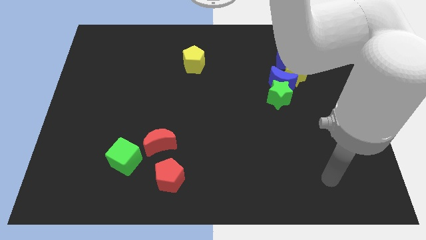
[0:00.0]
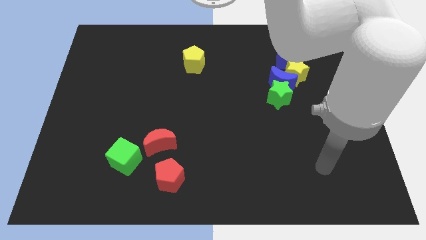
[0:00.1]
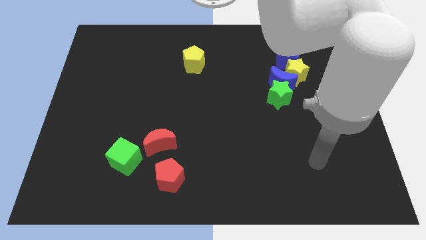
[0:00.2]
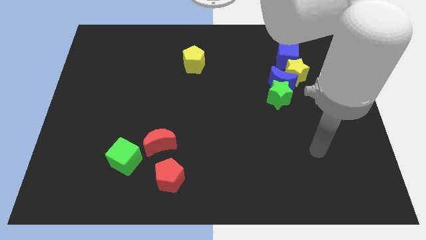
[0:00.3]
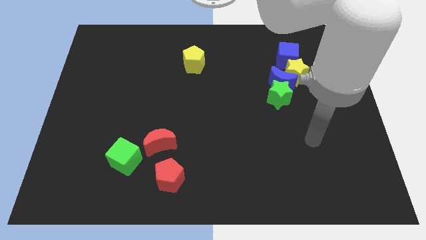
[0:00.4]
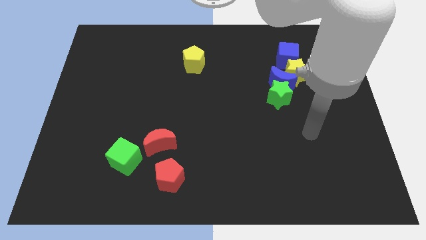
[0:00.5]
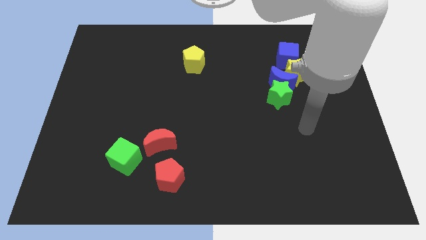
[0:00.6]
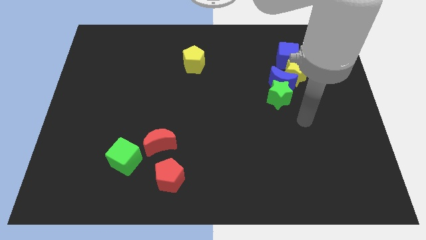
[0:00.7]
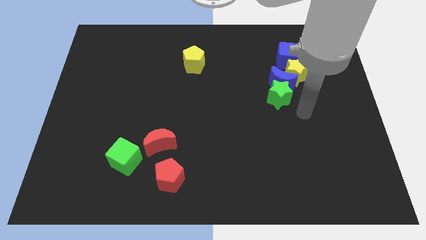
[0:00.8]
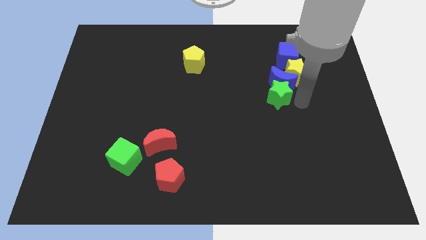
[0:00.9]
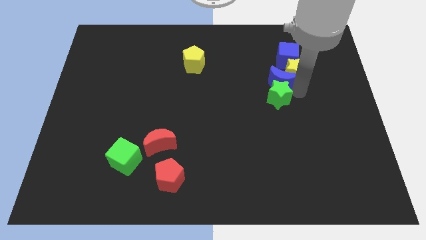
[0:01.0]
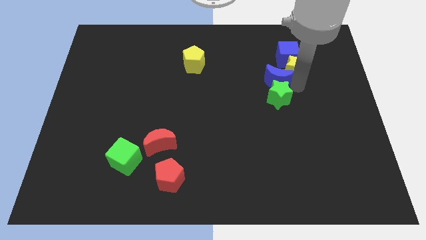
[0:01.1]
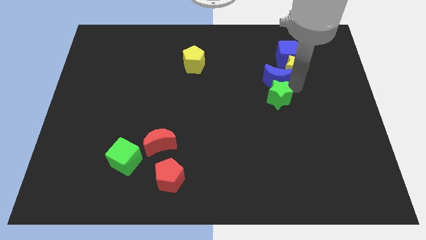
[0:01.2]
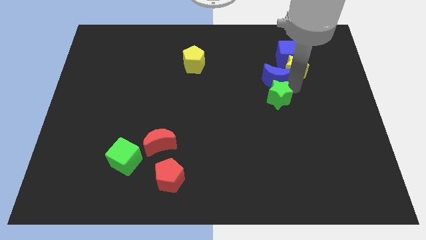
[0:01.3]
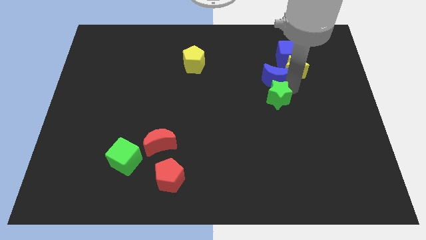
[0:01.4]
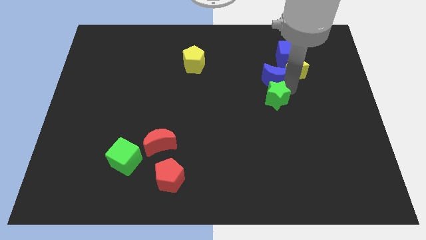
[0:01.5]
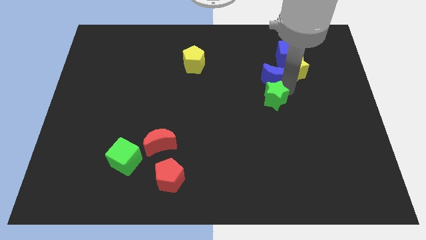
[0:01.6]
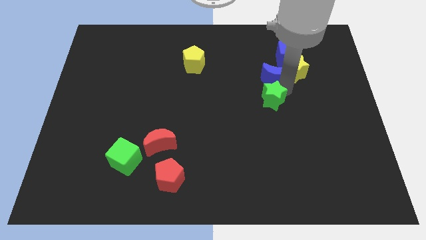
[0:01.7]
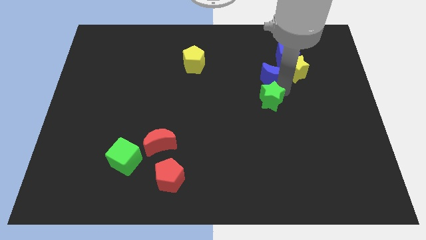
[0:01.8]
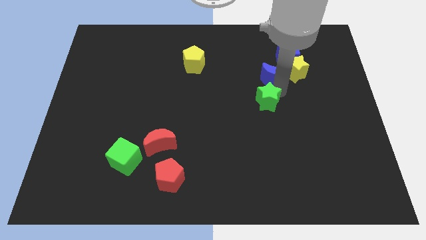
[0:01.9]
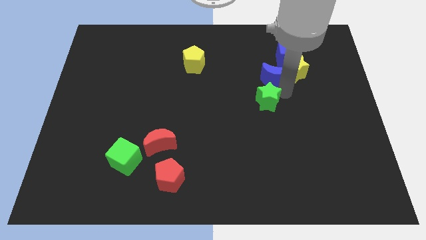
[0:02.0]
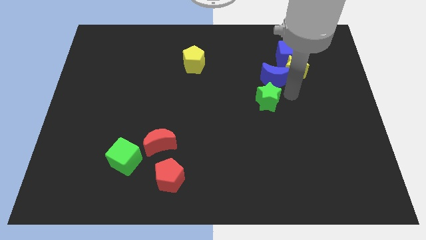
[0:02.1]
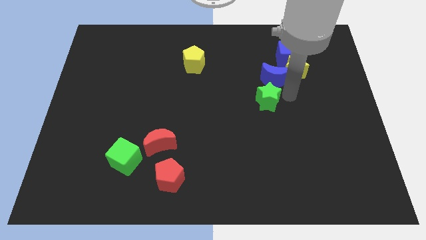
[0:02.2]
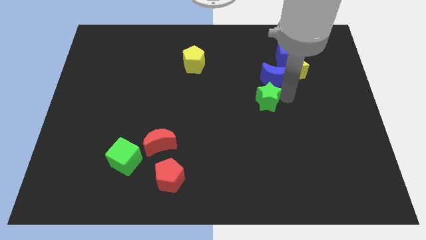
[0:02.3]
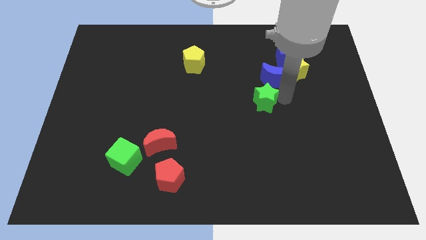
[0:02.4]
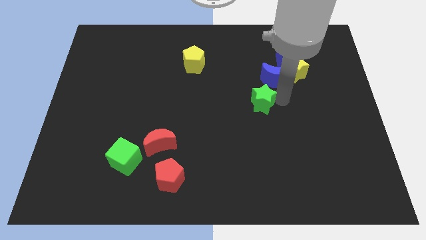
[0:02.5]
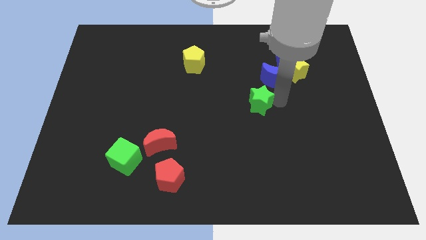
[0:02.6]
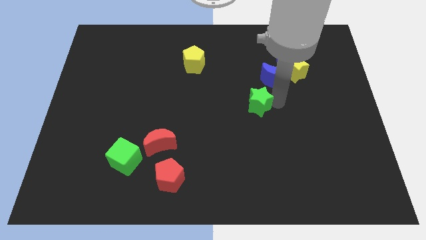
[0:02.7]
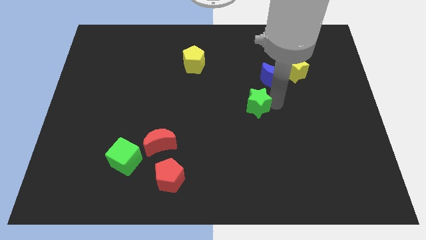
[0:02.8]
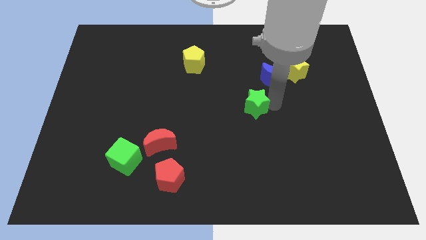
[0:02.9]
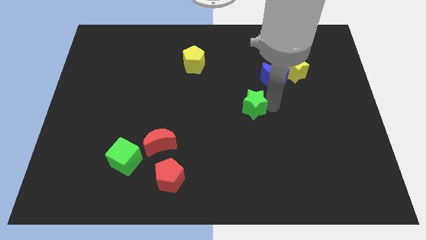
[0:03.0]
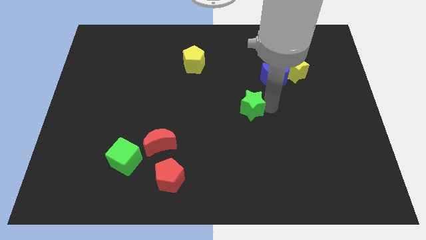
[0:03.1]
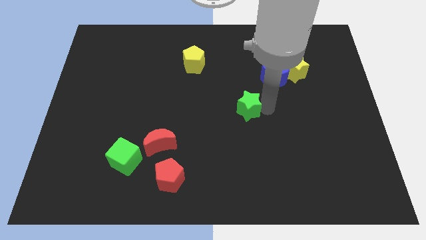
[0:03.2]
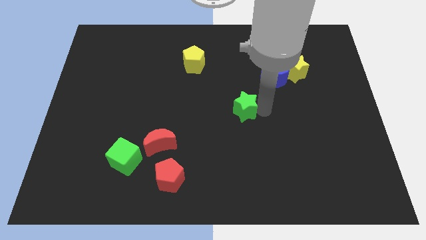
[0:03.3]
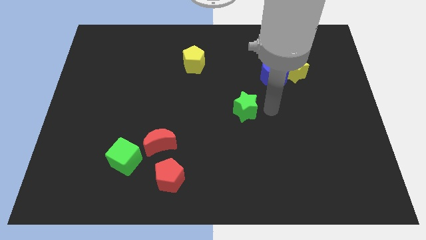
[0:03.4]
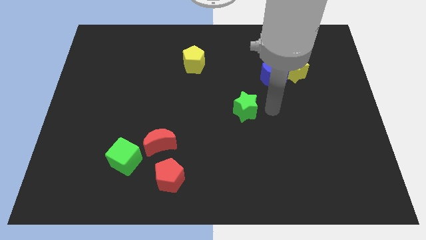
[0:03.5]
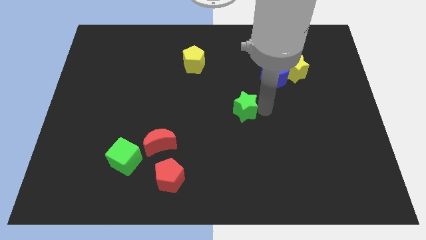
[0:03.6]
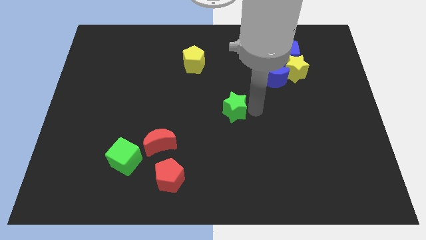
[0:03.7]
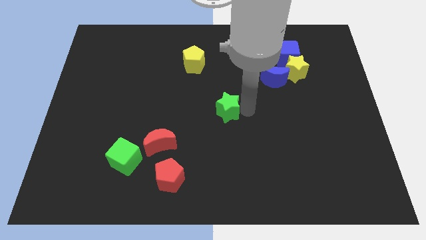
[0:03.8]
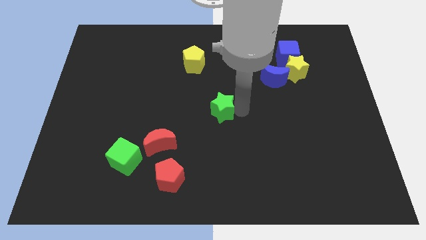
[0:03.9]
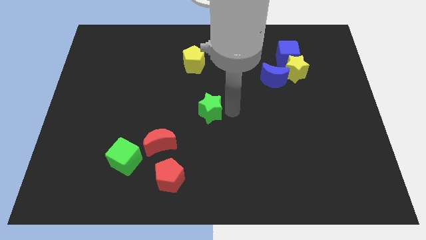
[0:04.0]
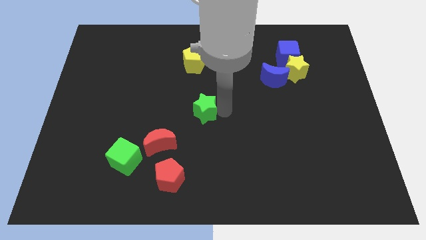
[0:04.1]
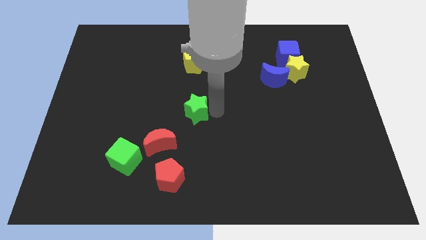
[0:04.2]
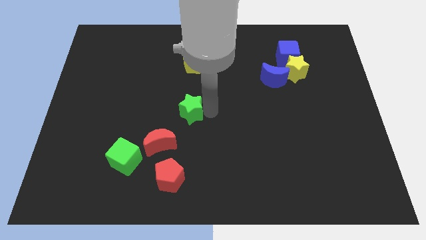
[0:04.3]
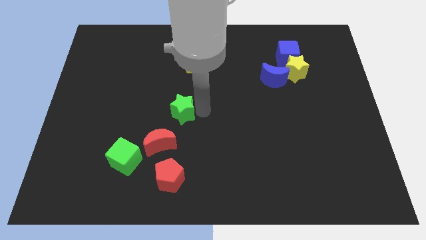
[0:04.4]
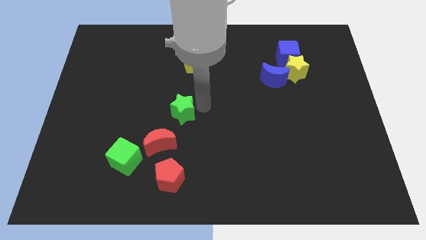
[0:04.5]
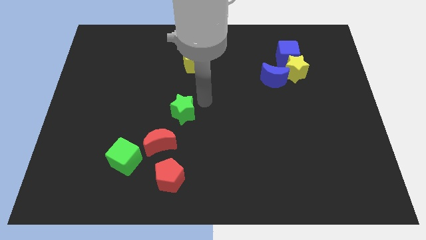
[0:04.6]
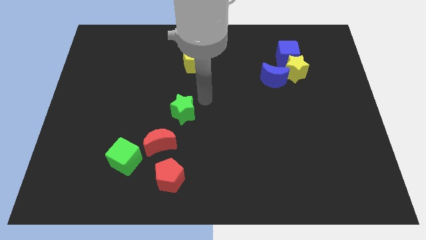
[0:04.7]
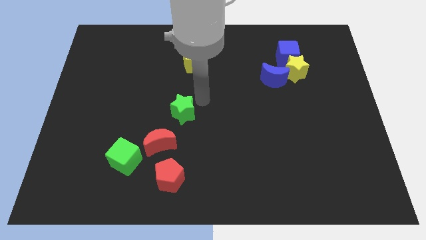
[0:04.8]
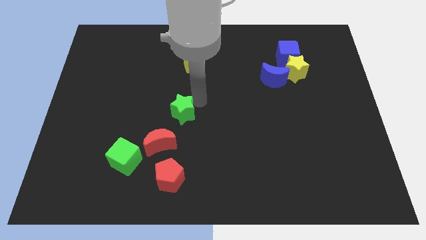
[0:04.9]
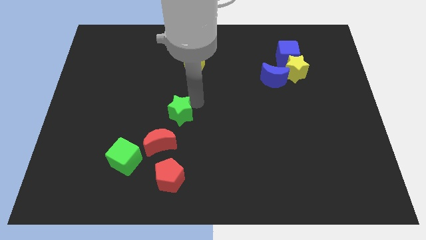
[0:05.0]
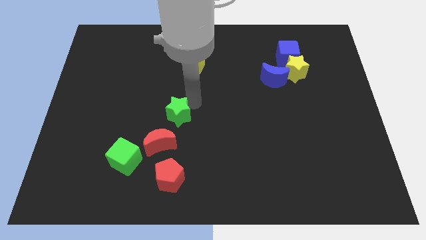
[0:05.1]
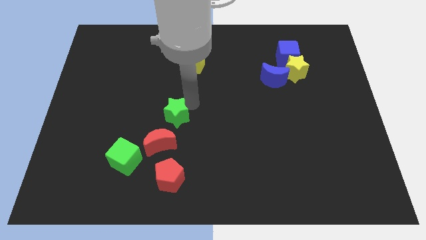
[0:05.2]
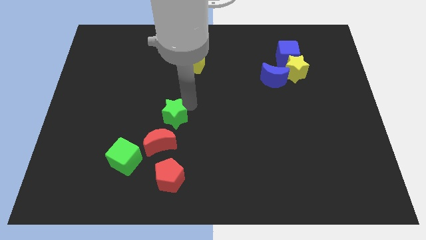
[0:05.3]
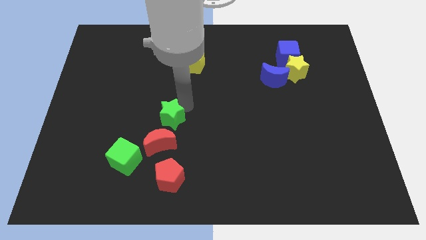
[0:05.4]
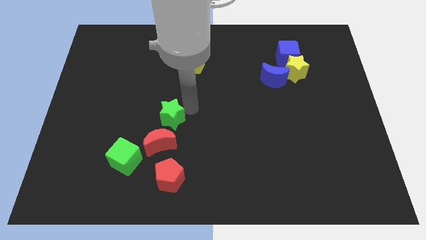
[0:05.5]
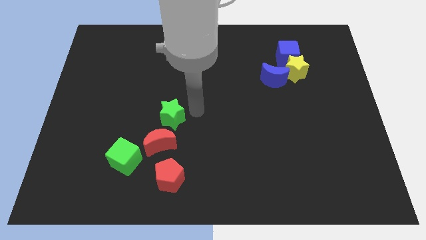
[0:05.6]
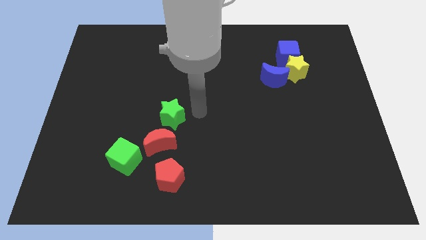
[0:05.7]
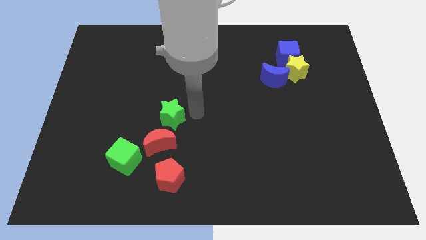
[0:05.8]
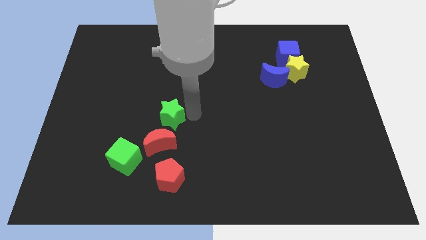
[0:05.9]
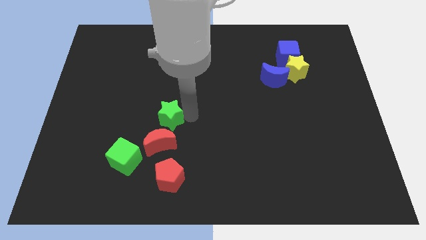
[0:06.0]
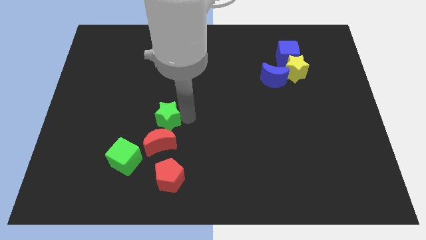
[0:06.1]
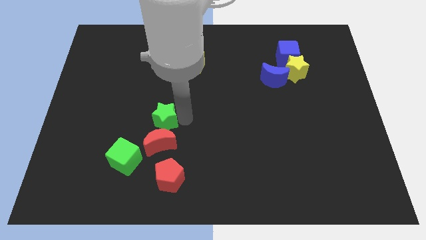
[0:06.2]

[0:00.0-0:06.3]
move the green star diagonally up and to the left of the red moon
